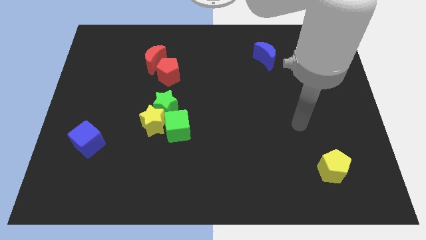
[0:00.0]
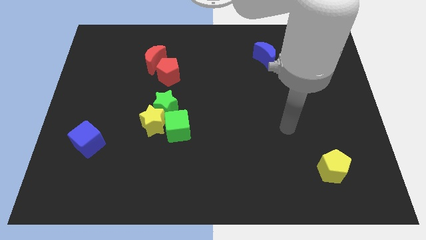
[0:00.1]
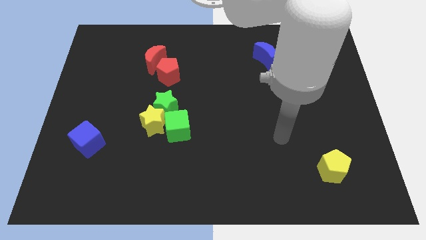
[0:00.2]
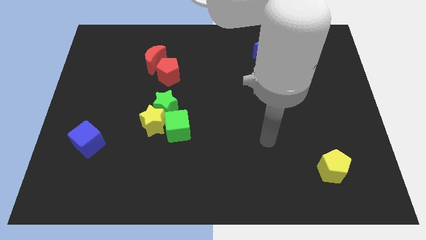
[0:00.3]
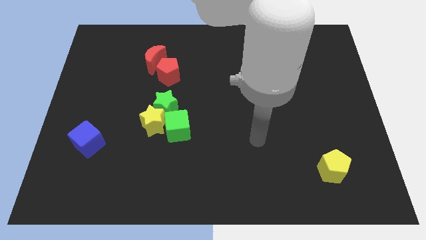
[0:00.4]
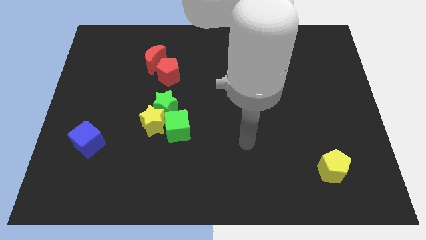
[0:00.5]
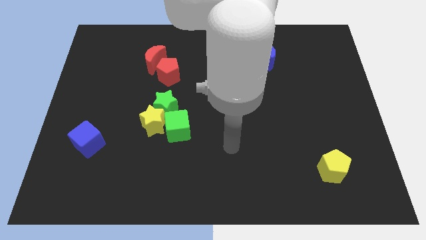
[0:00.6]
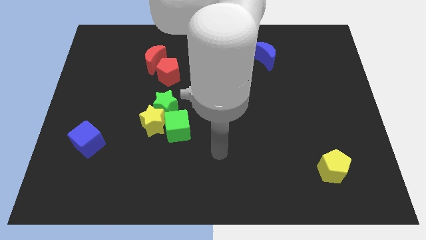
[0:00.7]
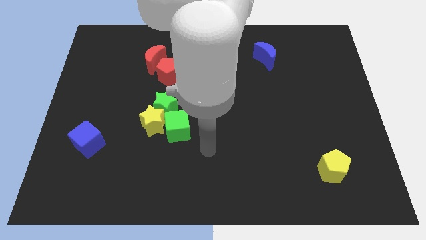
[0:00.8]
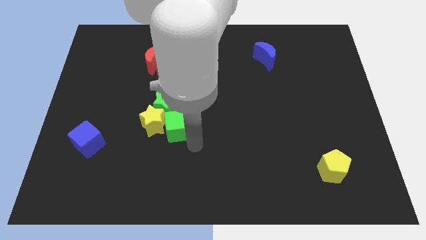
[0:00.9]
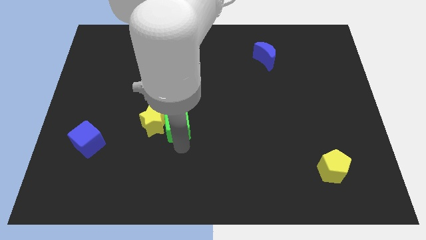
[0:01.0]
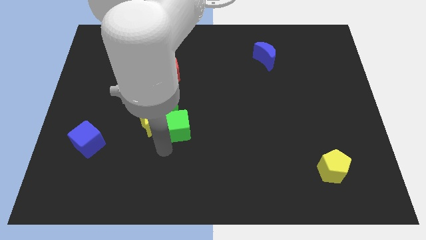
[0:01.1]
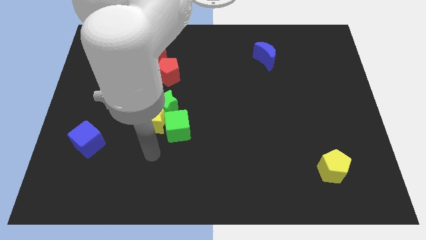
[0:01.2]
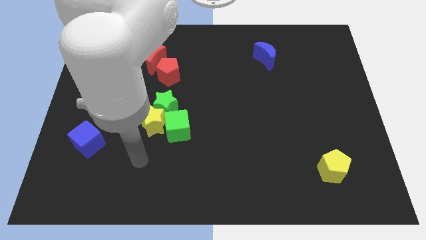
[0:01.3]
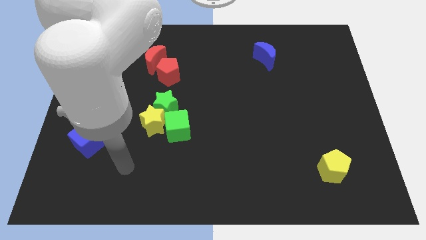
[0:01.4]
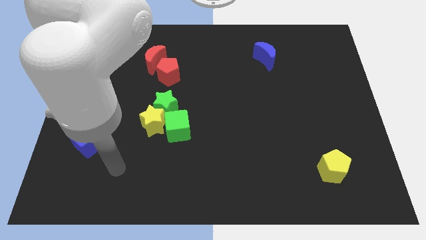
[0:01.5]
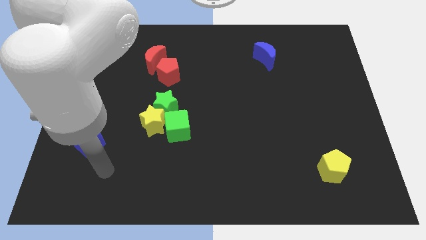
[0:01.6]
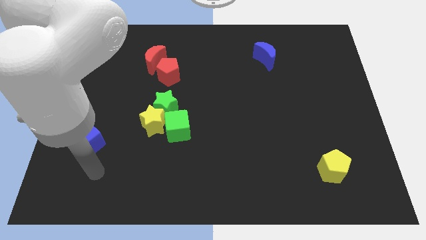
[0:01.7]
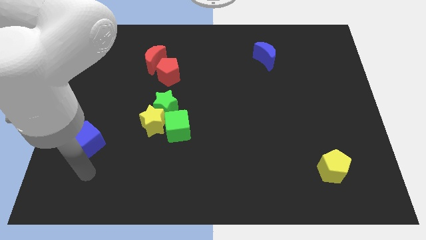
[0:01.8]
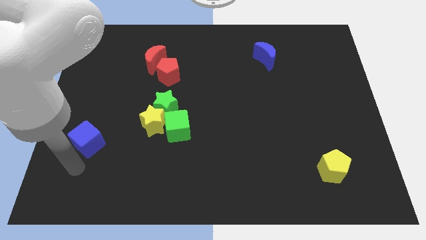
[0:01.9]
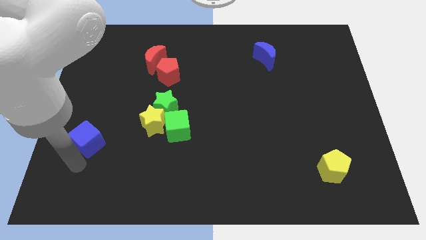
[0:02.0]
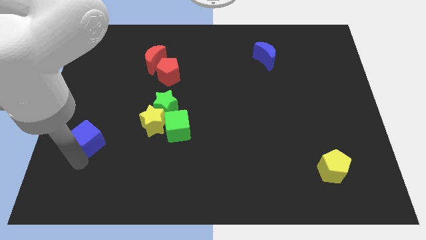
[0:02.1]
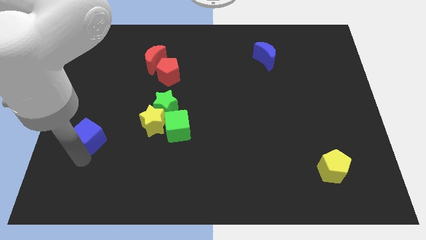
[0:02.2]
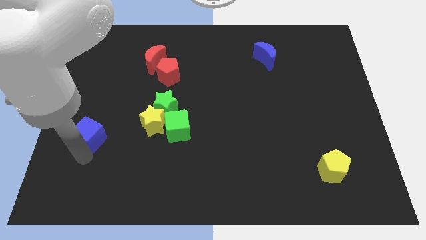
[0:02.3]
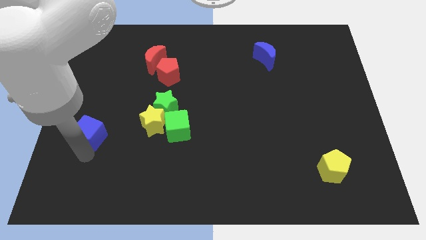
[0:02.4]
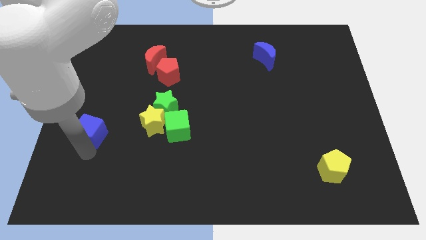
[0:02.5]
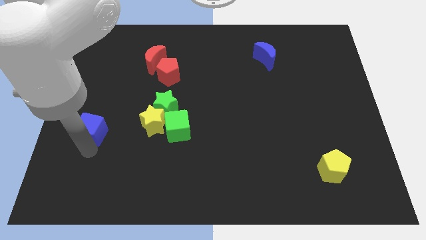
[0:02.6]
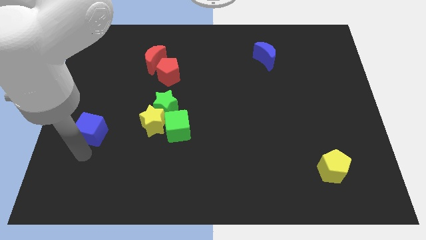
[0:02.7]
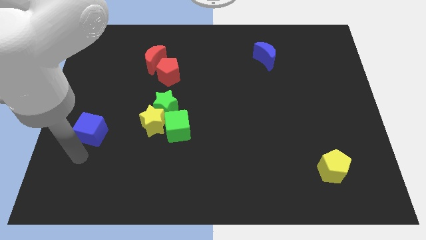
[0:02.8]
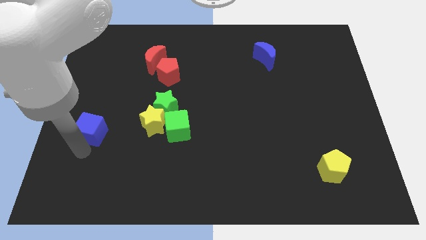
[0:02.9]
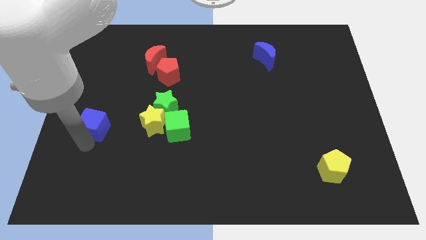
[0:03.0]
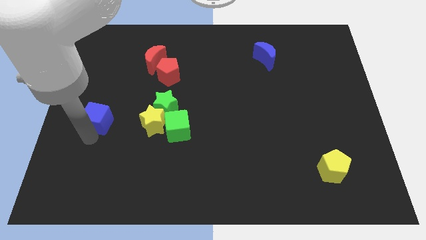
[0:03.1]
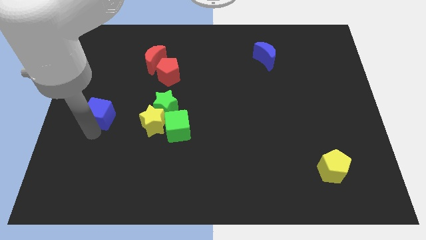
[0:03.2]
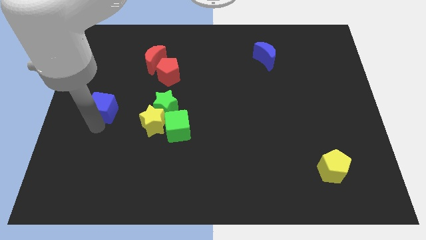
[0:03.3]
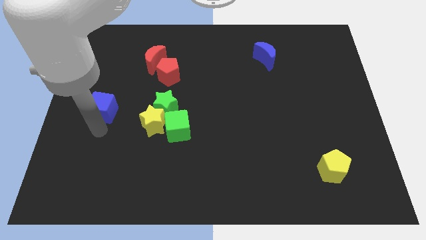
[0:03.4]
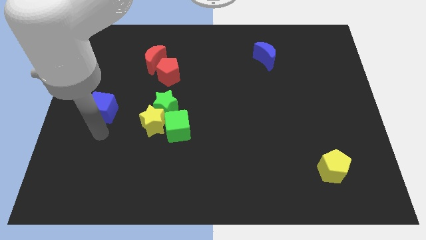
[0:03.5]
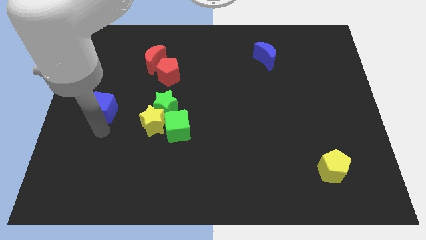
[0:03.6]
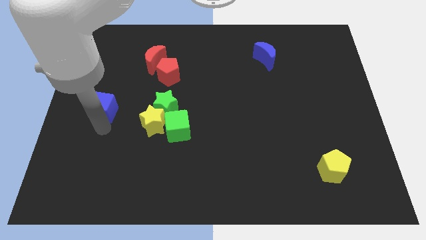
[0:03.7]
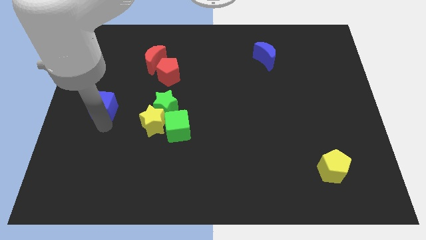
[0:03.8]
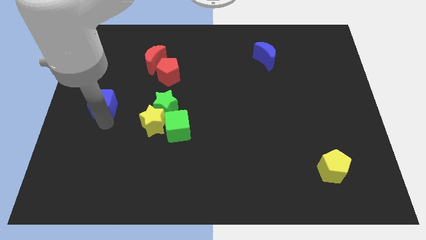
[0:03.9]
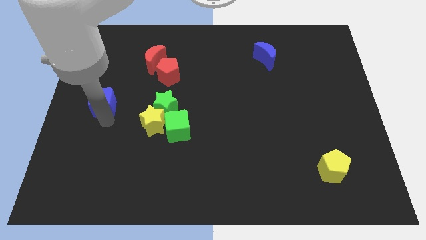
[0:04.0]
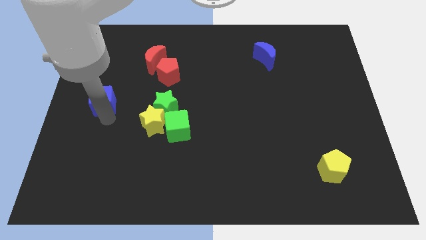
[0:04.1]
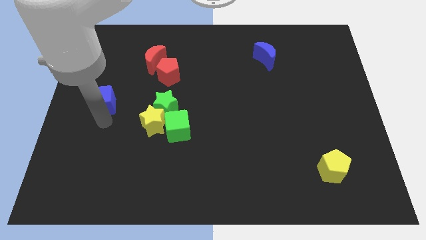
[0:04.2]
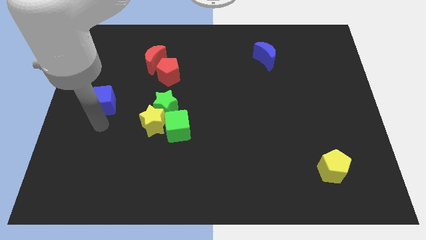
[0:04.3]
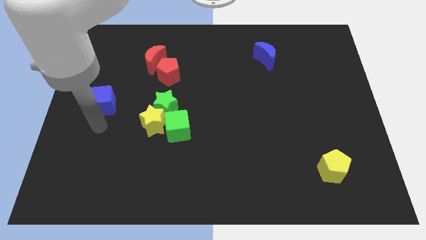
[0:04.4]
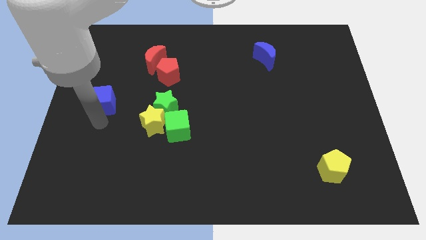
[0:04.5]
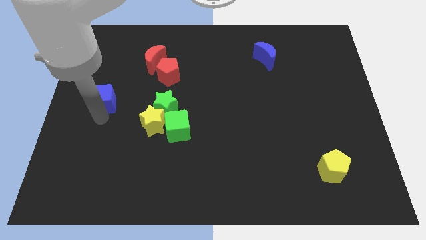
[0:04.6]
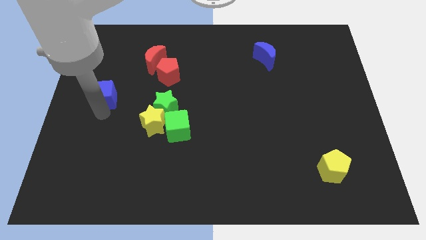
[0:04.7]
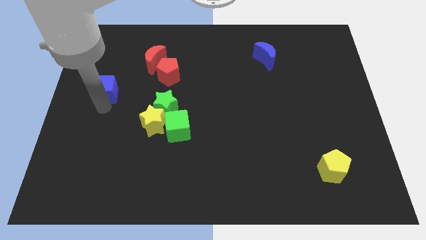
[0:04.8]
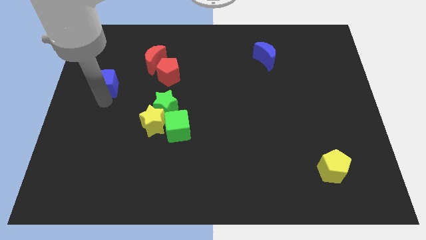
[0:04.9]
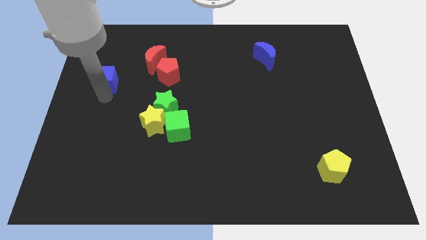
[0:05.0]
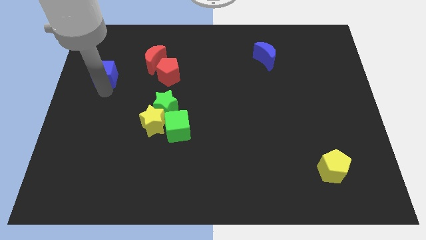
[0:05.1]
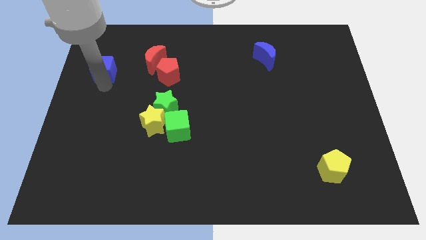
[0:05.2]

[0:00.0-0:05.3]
put the blue cube to the left side of the red moon

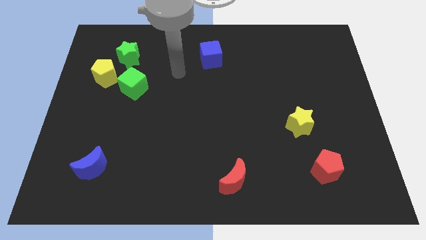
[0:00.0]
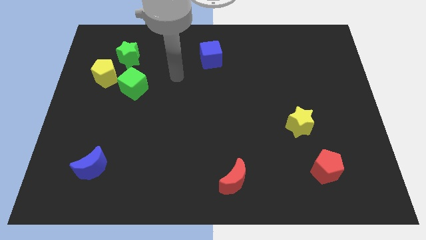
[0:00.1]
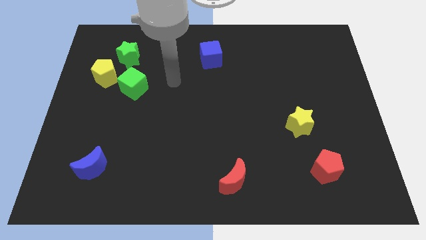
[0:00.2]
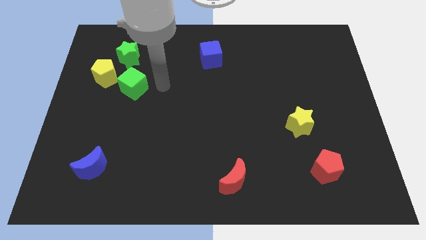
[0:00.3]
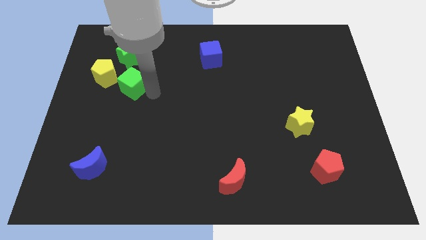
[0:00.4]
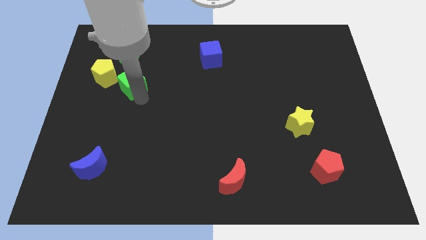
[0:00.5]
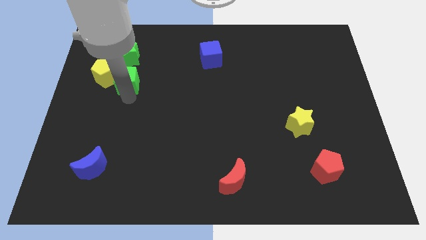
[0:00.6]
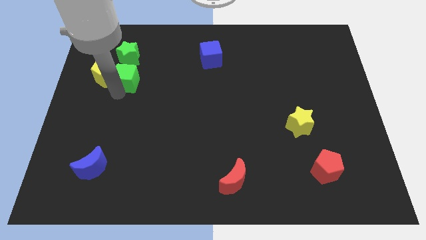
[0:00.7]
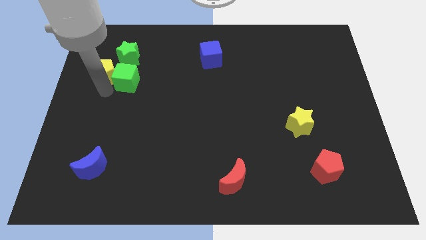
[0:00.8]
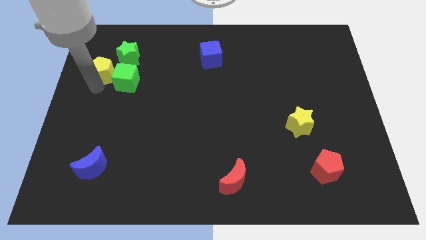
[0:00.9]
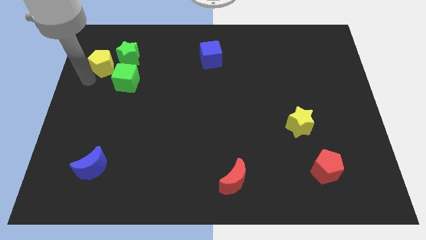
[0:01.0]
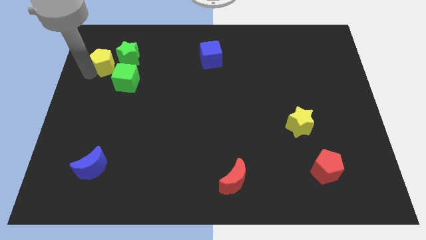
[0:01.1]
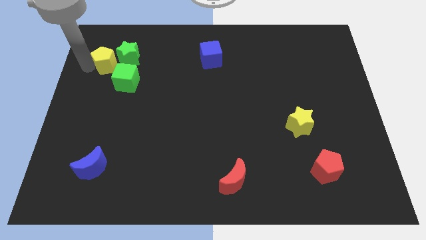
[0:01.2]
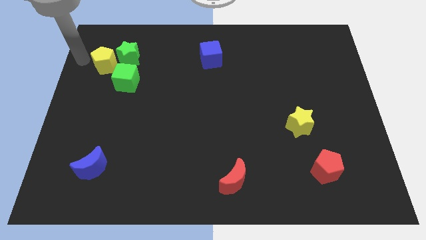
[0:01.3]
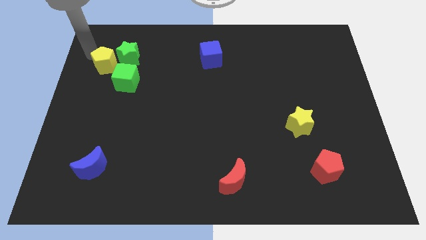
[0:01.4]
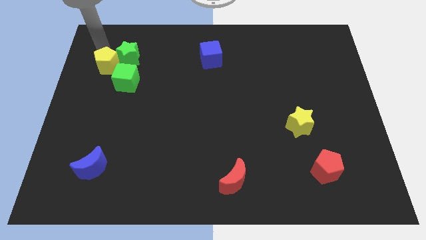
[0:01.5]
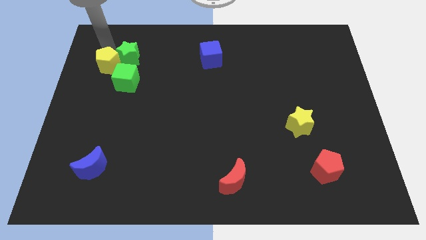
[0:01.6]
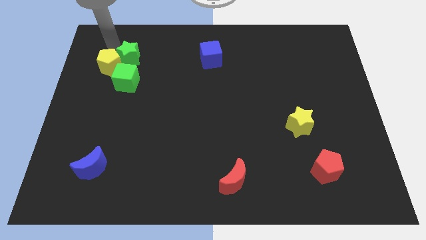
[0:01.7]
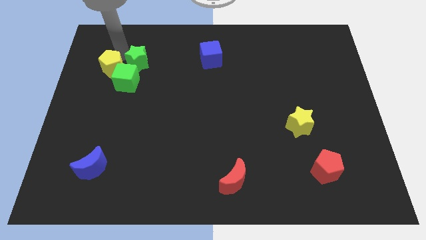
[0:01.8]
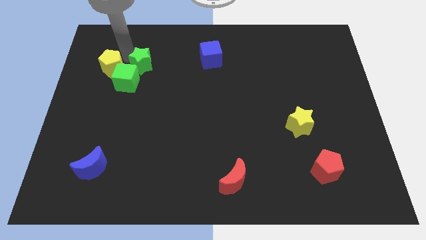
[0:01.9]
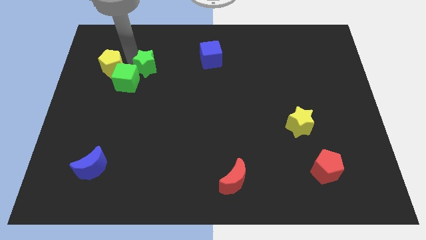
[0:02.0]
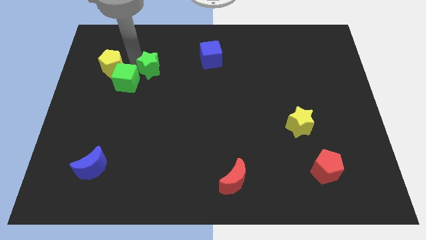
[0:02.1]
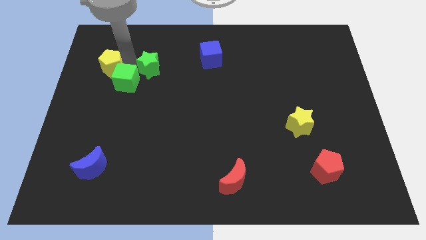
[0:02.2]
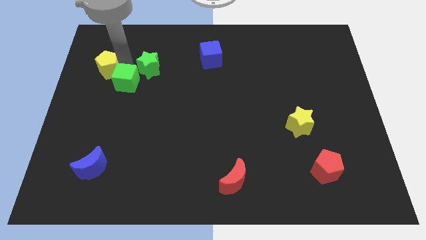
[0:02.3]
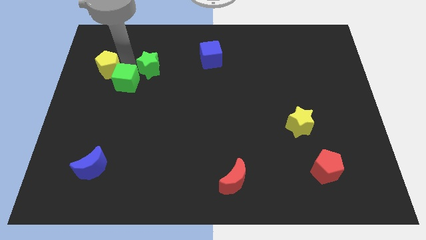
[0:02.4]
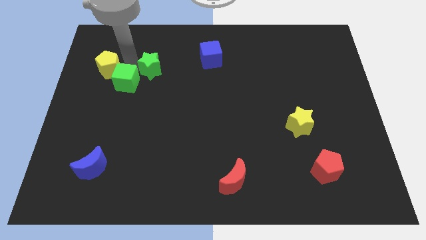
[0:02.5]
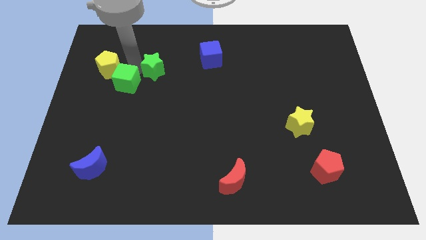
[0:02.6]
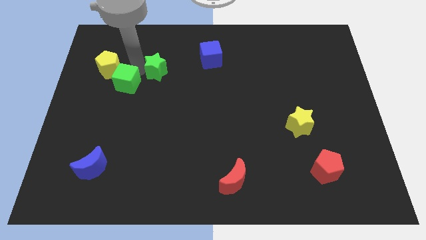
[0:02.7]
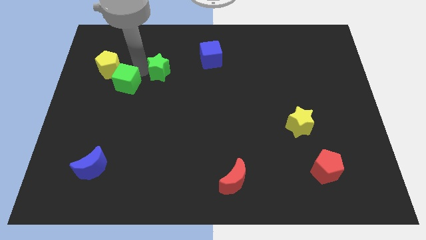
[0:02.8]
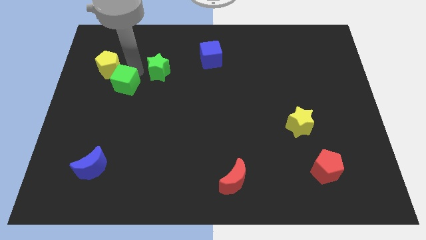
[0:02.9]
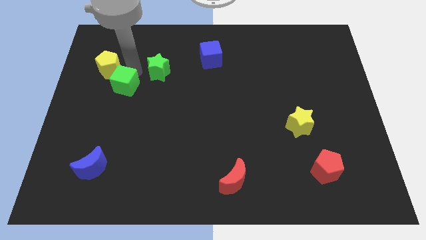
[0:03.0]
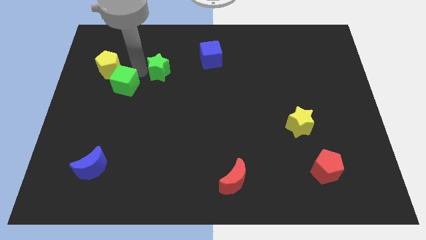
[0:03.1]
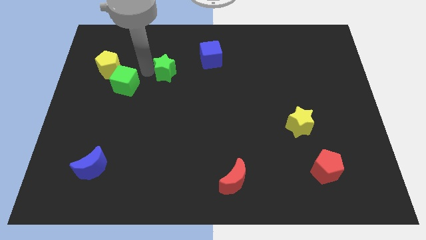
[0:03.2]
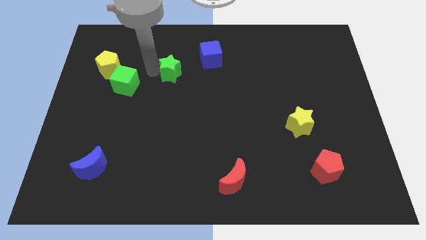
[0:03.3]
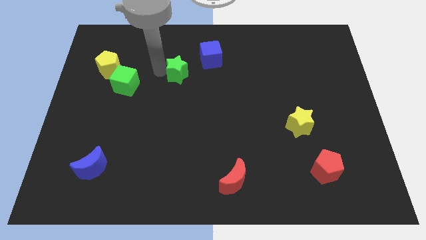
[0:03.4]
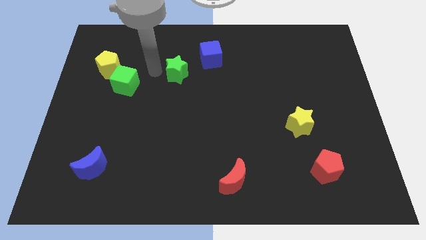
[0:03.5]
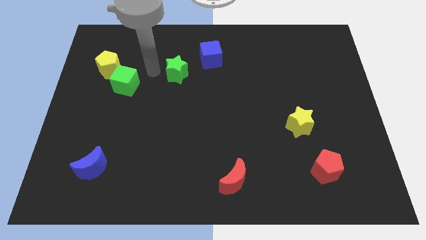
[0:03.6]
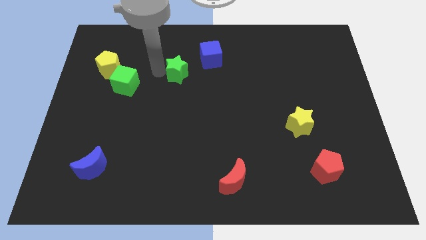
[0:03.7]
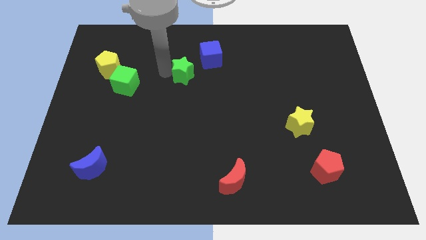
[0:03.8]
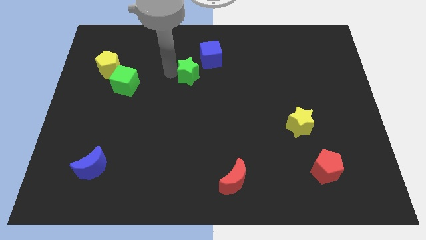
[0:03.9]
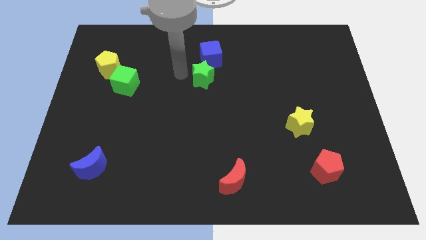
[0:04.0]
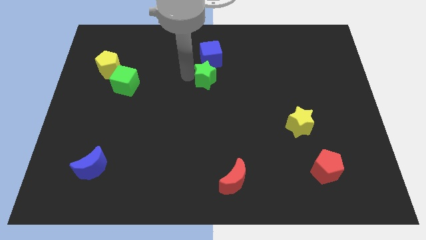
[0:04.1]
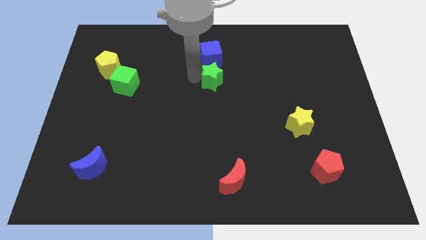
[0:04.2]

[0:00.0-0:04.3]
put the green star to the bottom right side of the blue cube
